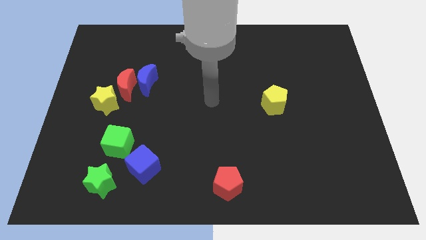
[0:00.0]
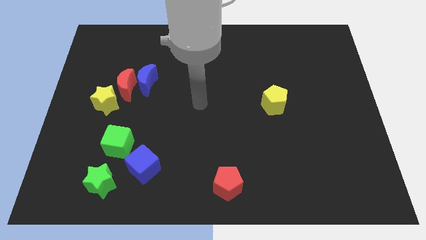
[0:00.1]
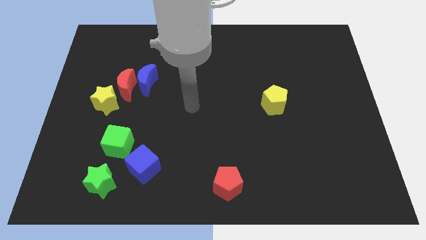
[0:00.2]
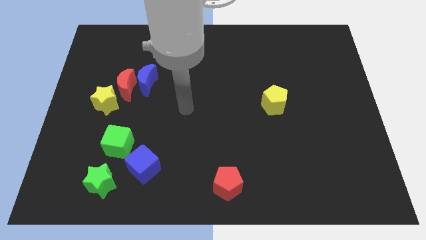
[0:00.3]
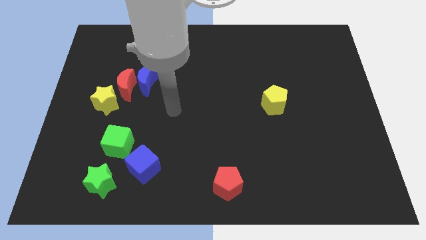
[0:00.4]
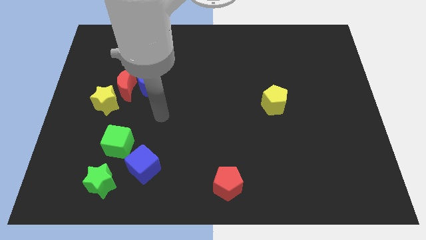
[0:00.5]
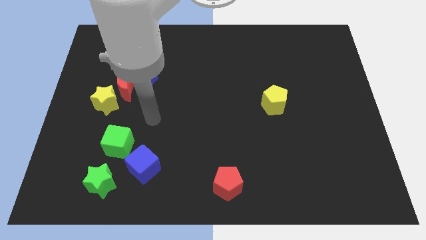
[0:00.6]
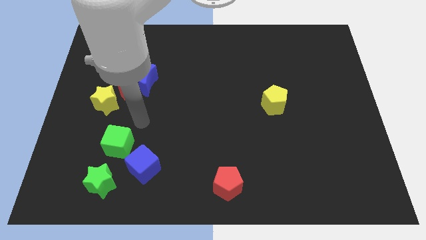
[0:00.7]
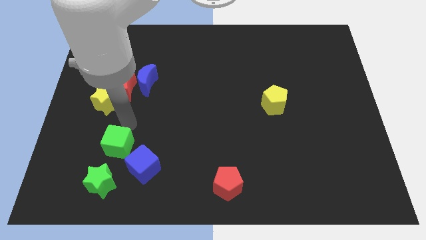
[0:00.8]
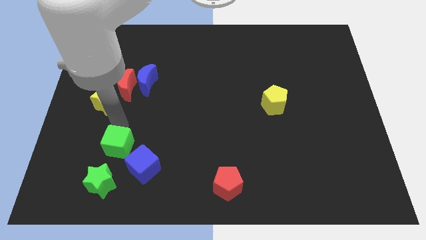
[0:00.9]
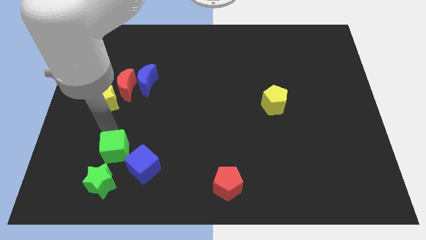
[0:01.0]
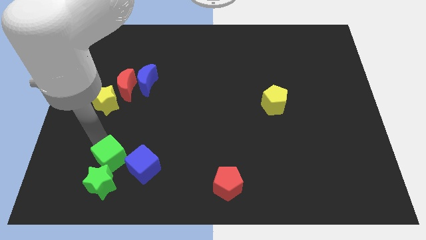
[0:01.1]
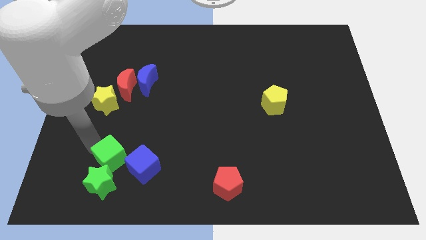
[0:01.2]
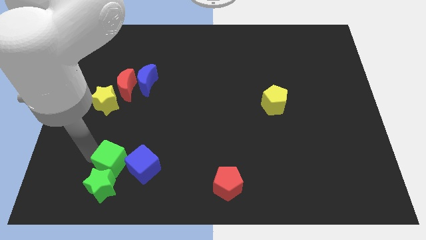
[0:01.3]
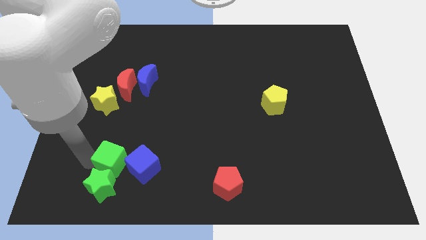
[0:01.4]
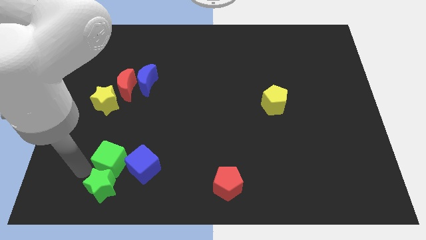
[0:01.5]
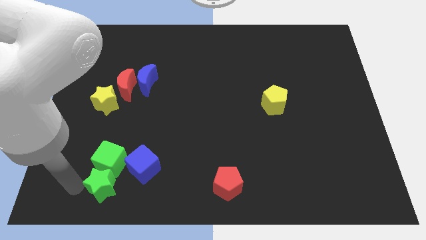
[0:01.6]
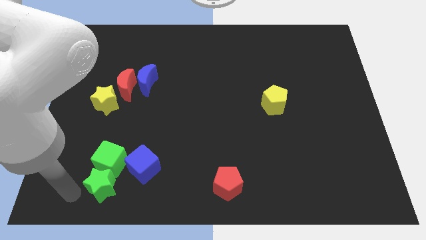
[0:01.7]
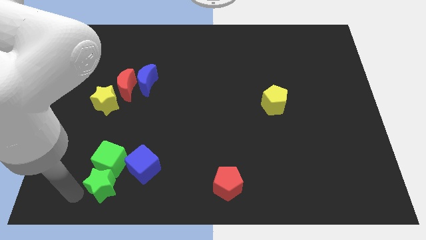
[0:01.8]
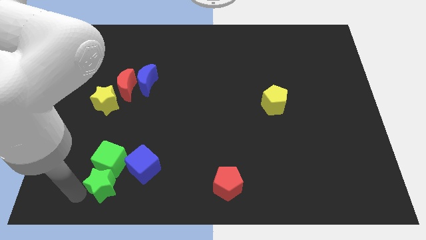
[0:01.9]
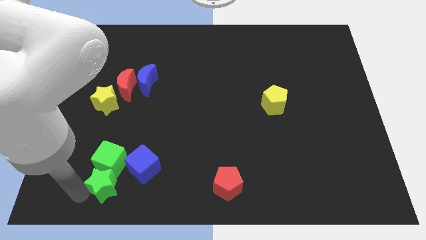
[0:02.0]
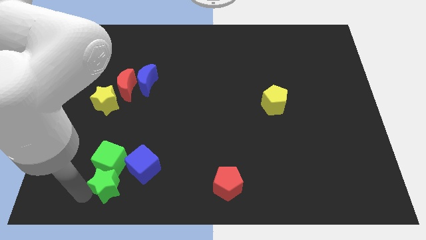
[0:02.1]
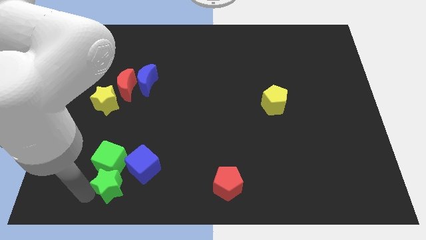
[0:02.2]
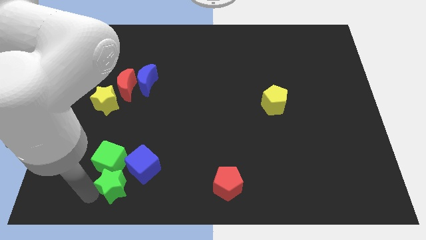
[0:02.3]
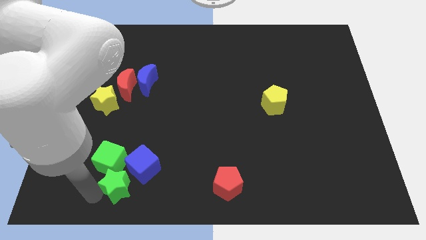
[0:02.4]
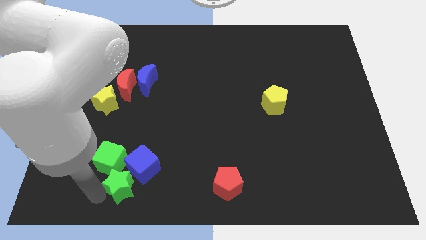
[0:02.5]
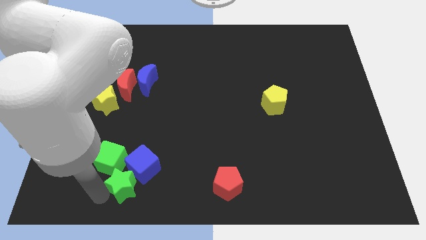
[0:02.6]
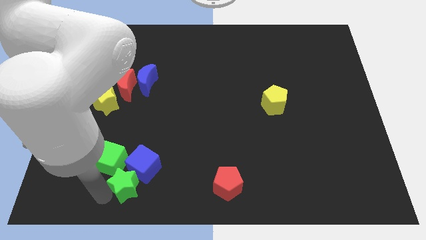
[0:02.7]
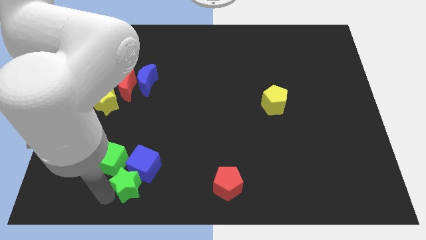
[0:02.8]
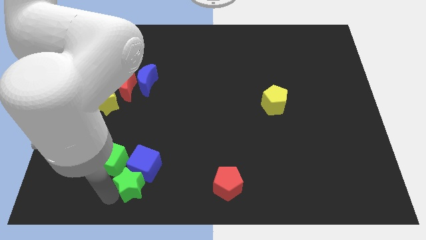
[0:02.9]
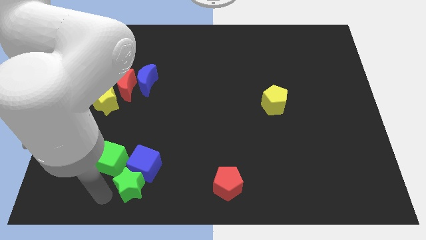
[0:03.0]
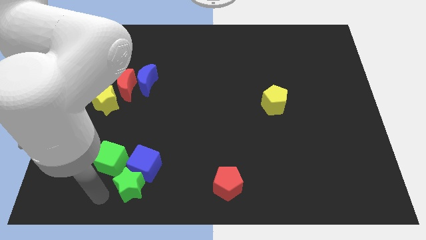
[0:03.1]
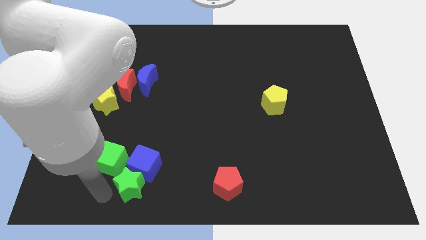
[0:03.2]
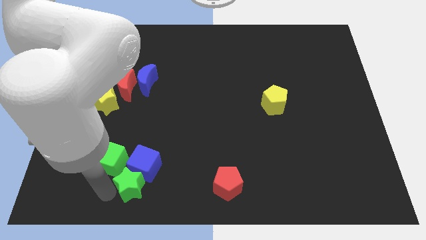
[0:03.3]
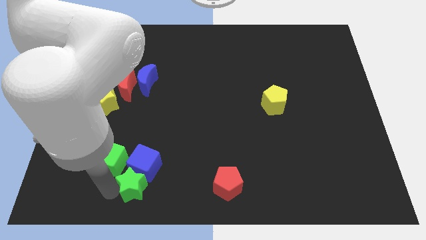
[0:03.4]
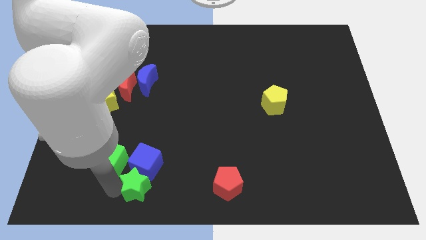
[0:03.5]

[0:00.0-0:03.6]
slightly move the green star right

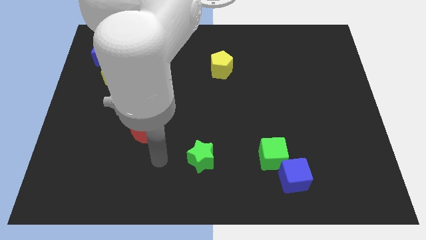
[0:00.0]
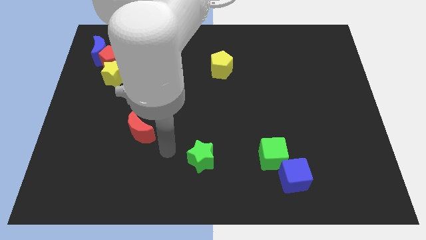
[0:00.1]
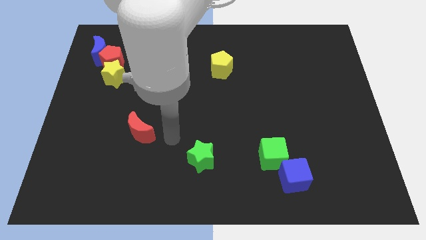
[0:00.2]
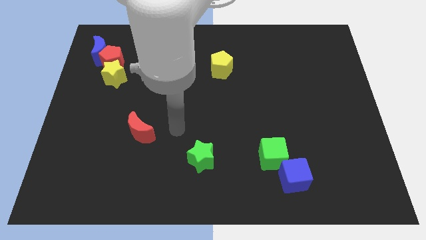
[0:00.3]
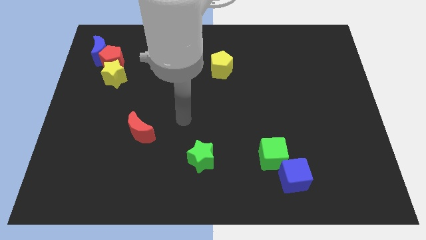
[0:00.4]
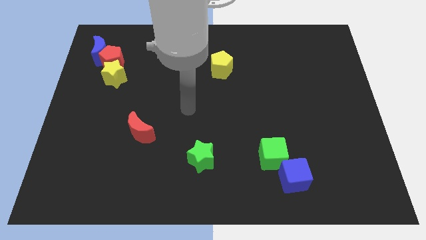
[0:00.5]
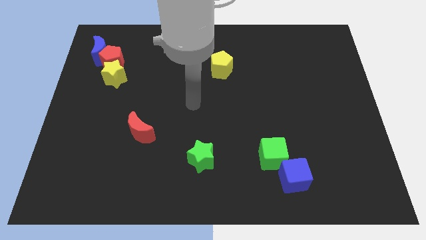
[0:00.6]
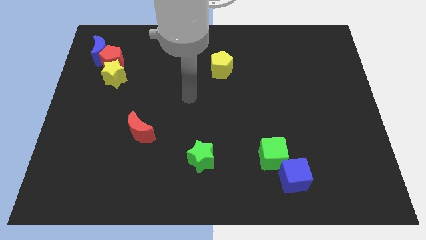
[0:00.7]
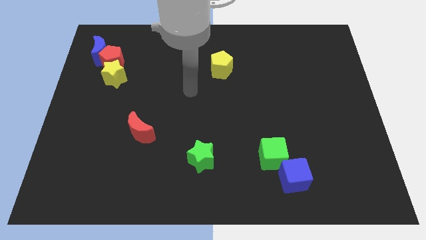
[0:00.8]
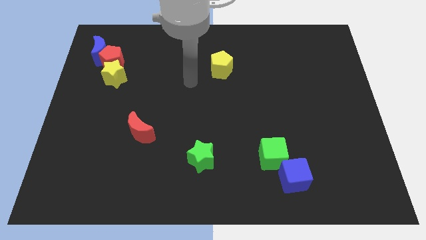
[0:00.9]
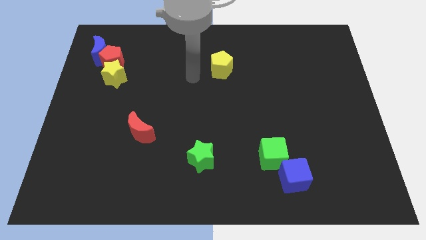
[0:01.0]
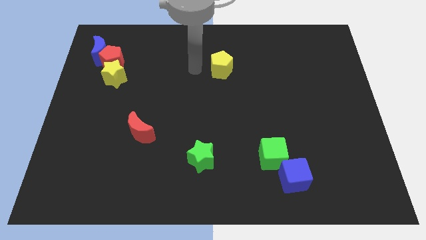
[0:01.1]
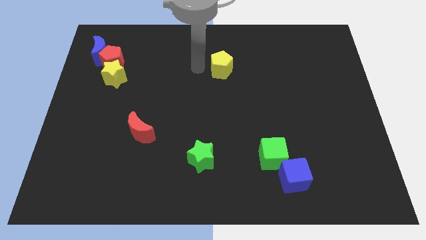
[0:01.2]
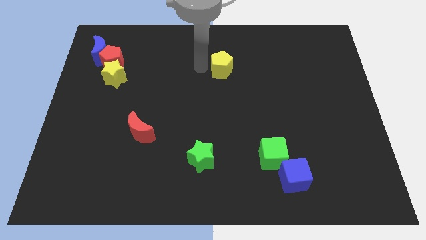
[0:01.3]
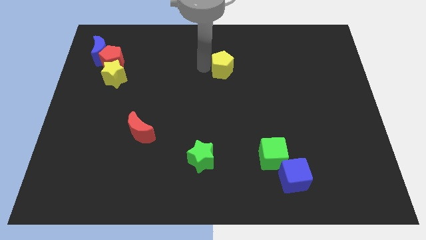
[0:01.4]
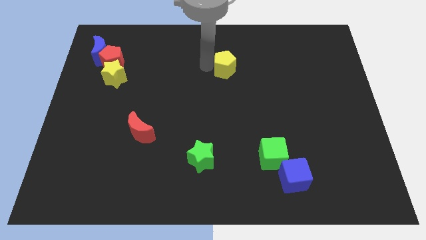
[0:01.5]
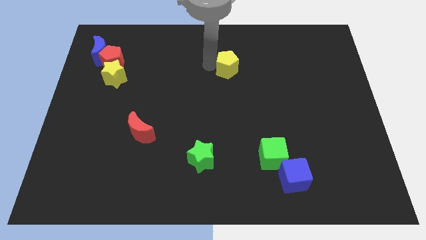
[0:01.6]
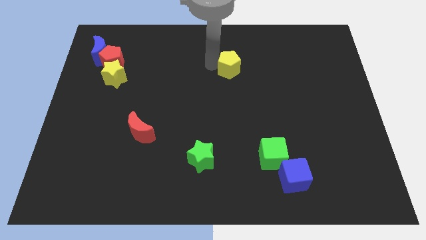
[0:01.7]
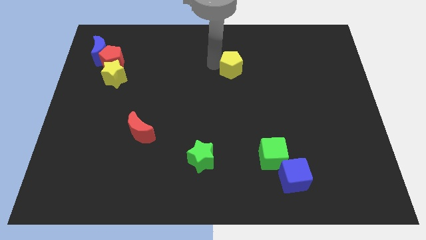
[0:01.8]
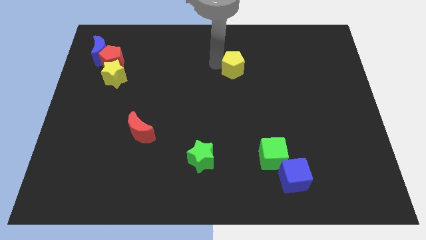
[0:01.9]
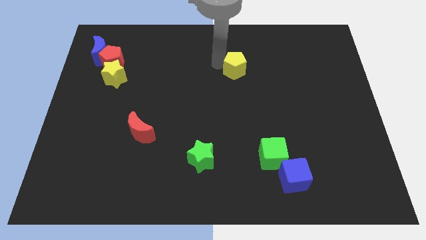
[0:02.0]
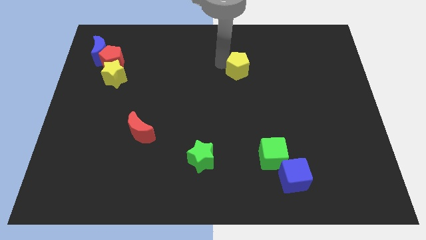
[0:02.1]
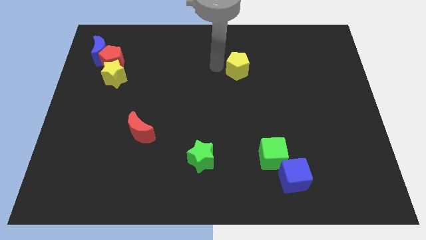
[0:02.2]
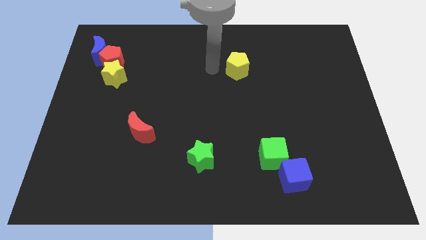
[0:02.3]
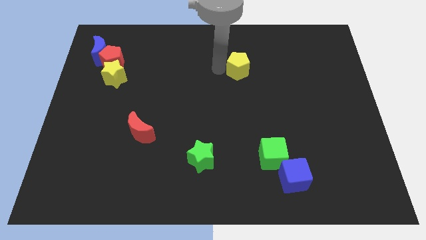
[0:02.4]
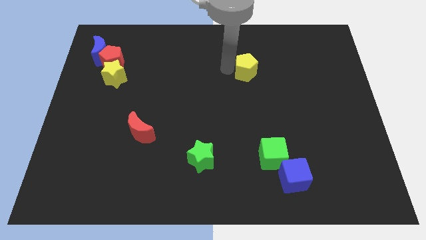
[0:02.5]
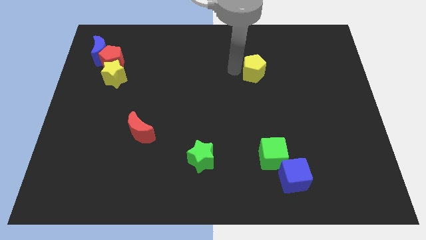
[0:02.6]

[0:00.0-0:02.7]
push the yellow pentagon to the right somewhat

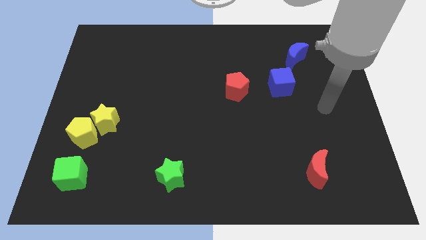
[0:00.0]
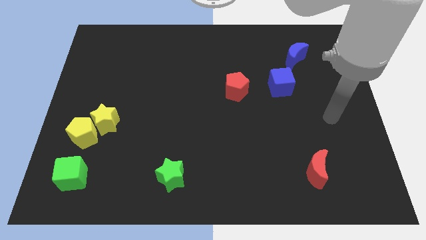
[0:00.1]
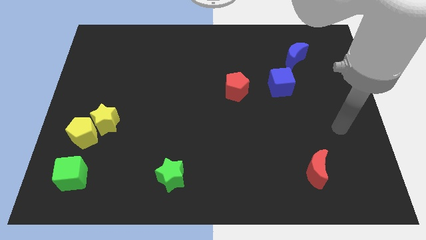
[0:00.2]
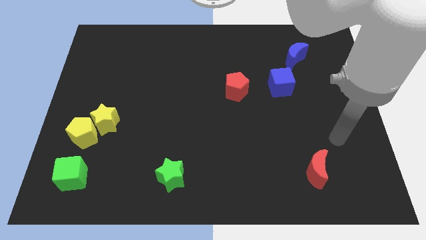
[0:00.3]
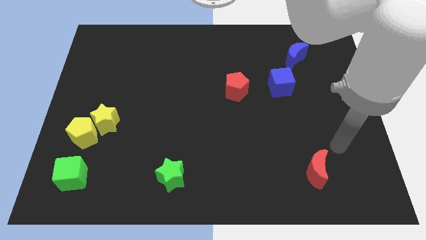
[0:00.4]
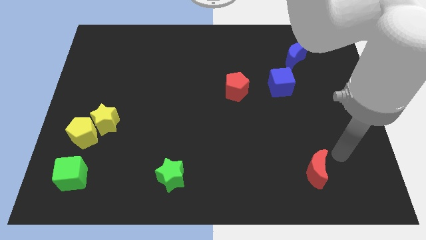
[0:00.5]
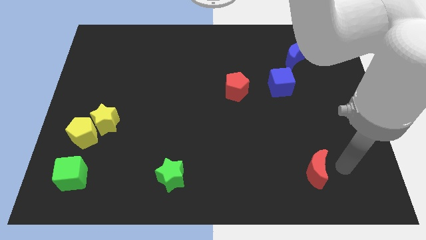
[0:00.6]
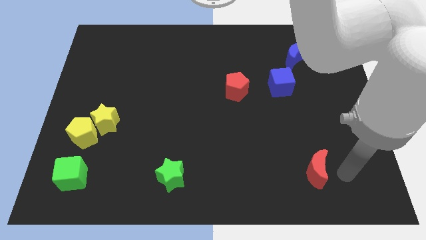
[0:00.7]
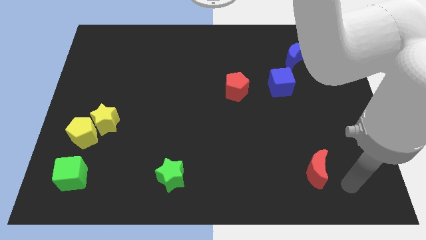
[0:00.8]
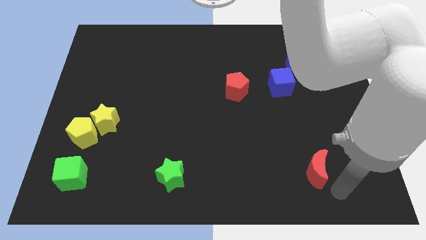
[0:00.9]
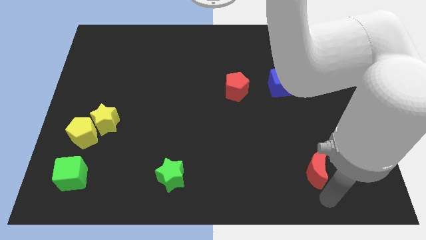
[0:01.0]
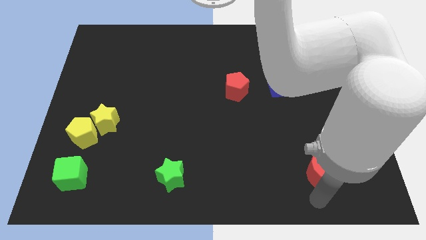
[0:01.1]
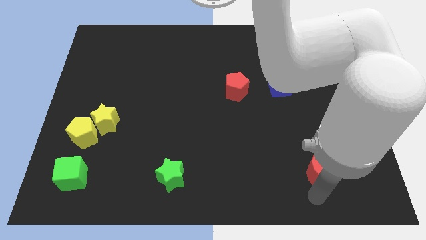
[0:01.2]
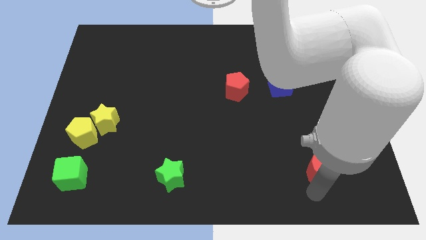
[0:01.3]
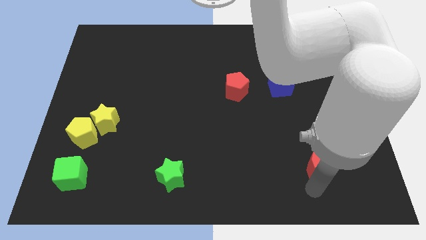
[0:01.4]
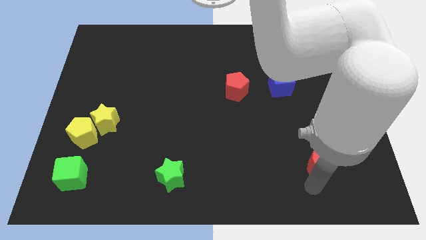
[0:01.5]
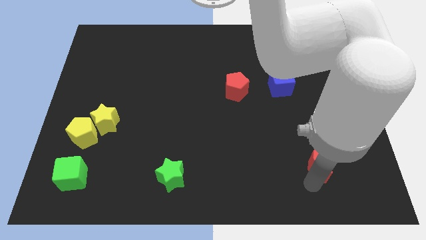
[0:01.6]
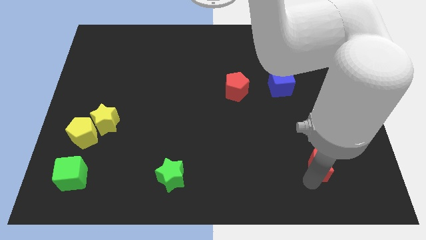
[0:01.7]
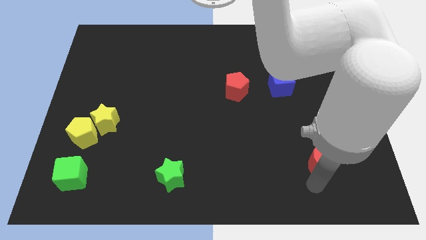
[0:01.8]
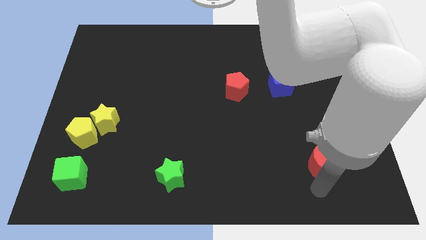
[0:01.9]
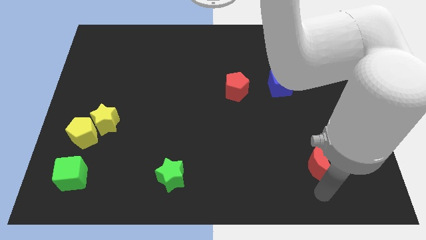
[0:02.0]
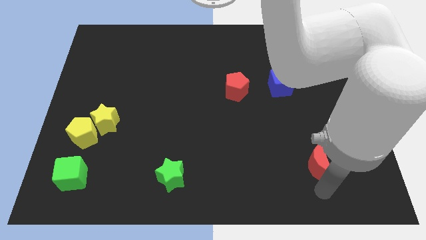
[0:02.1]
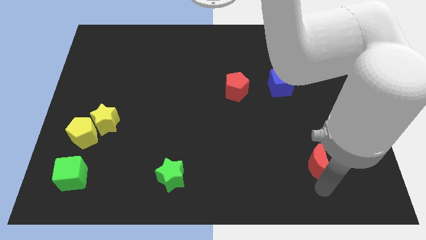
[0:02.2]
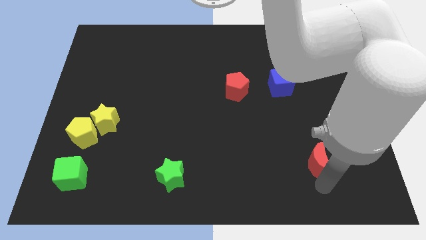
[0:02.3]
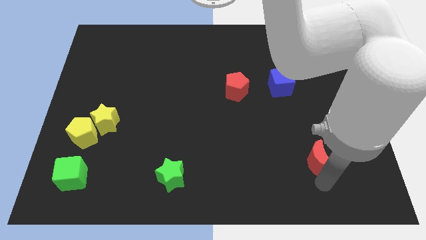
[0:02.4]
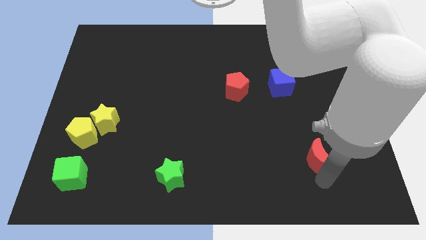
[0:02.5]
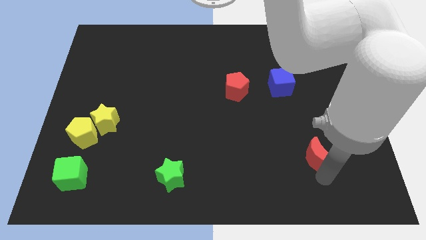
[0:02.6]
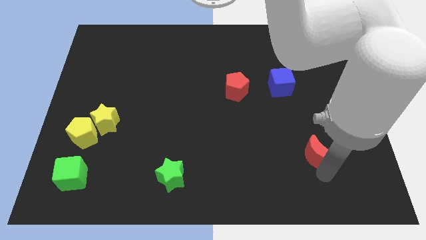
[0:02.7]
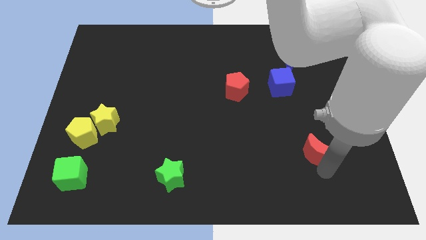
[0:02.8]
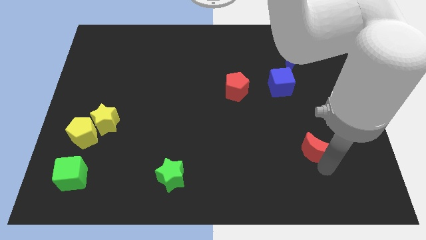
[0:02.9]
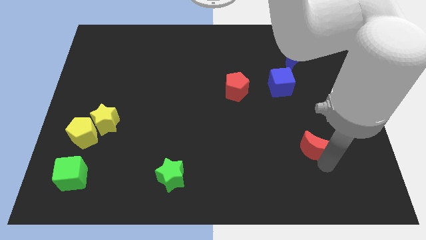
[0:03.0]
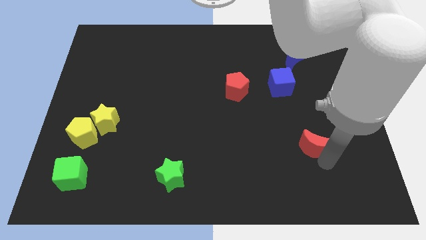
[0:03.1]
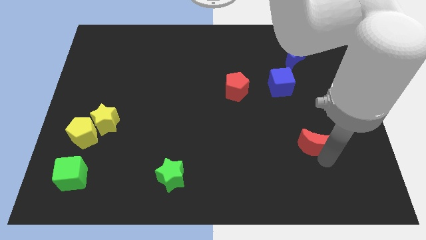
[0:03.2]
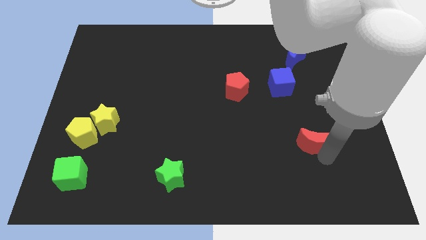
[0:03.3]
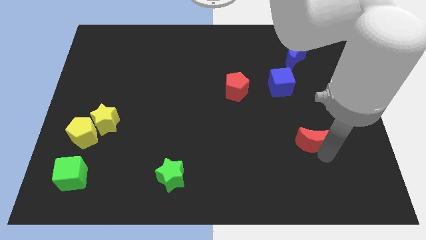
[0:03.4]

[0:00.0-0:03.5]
slightly slide the red moon upwards
